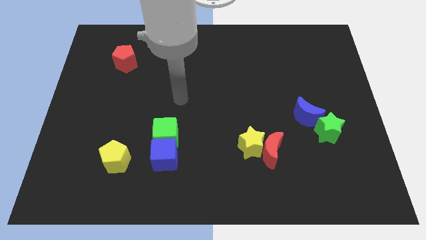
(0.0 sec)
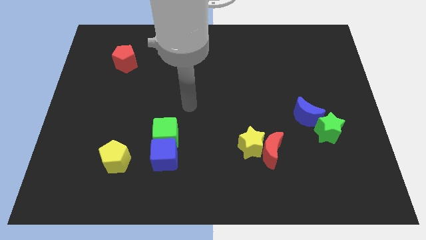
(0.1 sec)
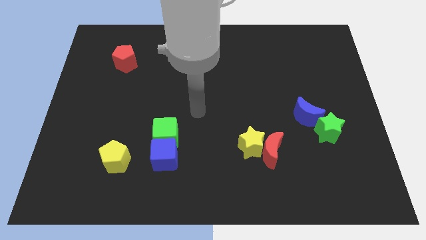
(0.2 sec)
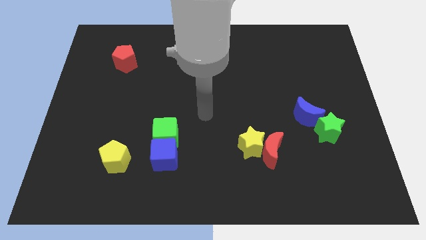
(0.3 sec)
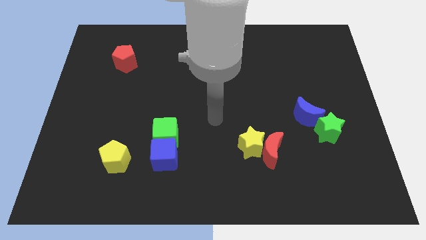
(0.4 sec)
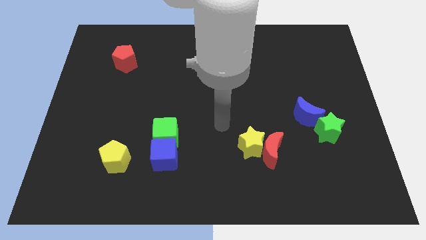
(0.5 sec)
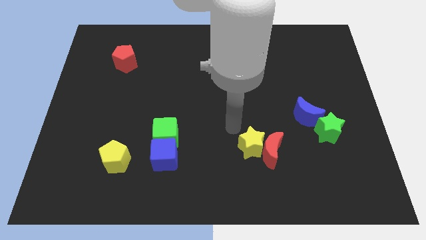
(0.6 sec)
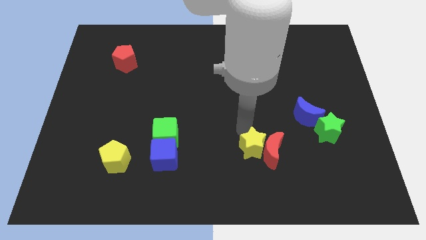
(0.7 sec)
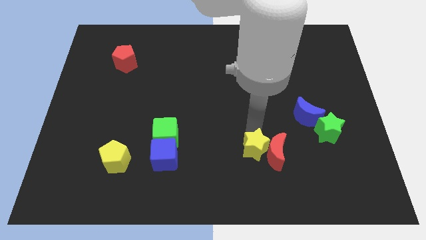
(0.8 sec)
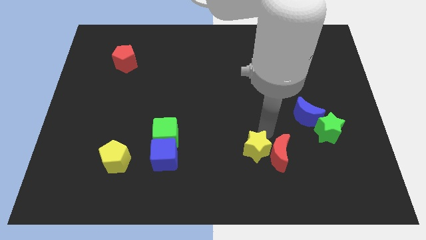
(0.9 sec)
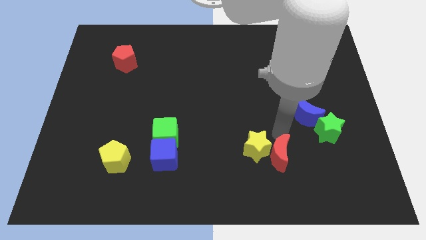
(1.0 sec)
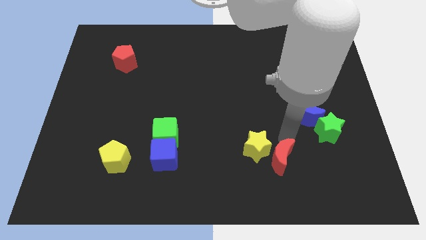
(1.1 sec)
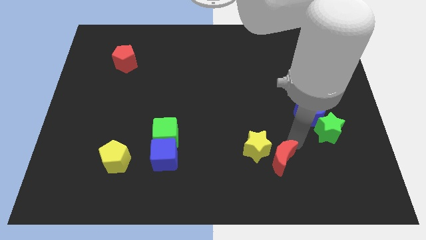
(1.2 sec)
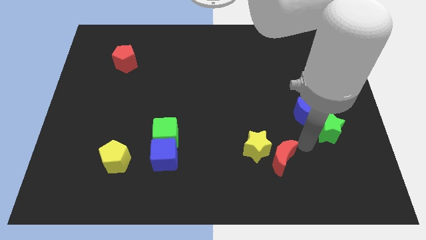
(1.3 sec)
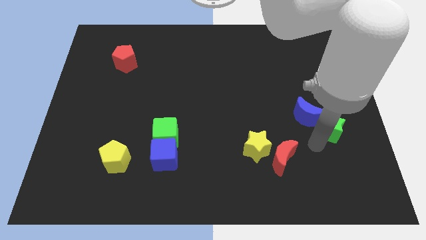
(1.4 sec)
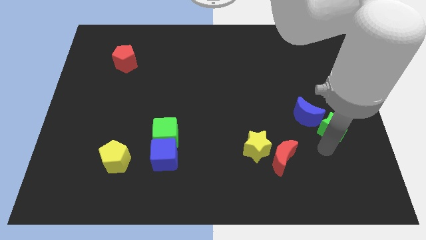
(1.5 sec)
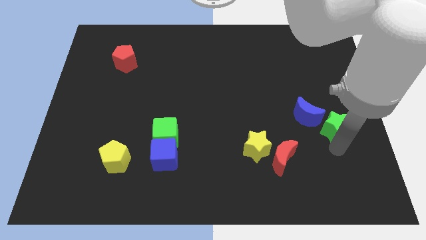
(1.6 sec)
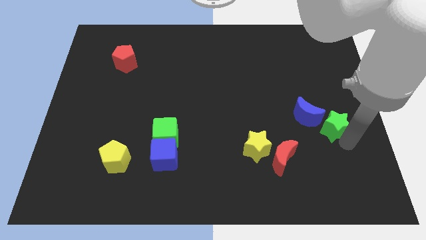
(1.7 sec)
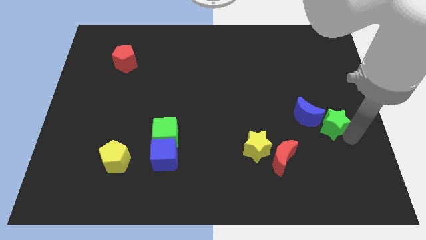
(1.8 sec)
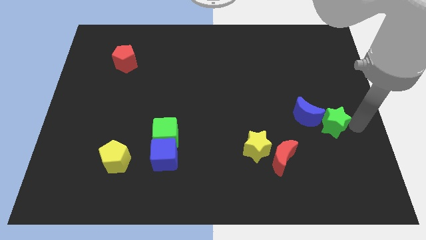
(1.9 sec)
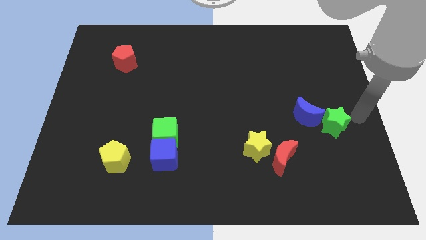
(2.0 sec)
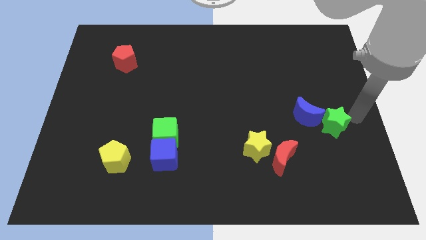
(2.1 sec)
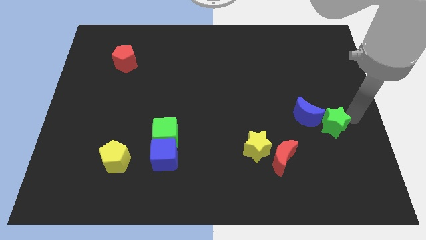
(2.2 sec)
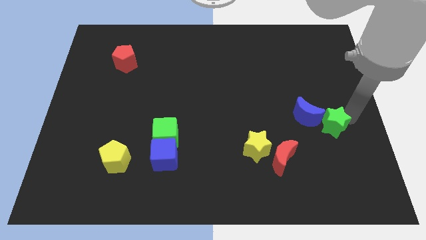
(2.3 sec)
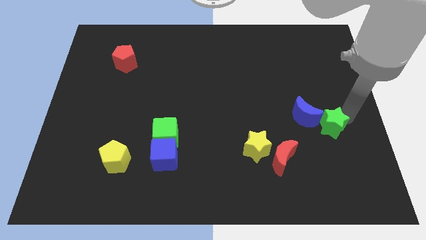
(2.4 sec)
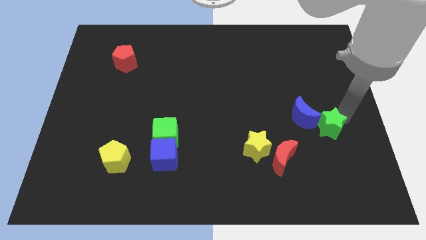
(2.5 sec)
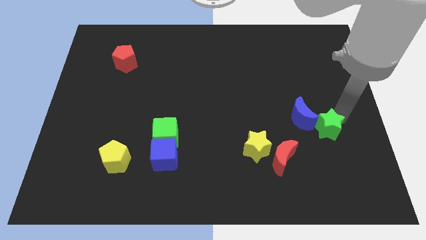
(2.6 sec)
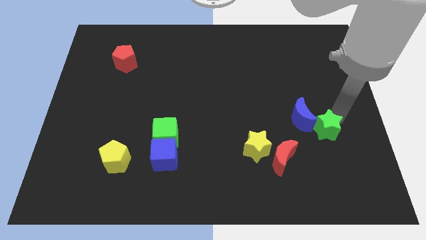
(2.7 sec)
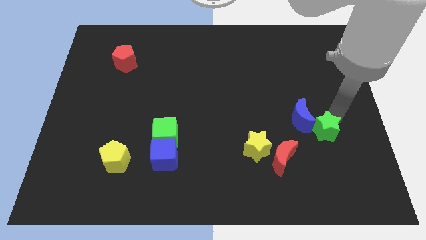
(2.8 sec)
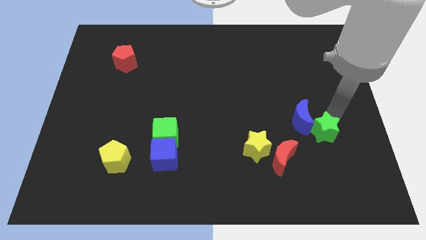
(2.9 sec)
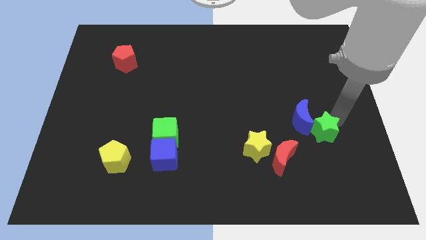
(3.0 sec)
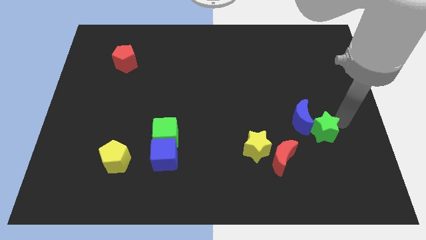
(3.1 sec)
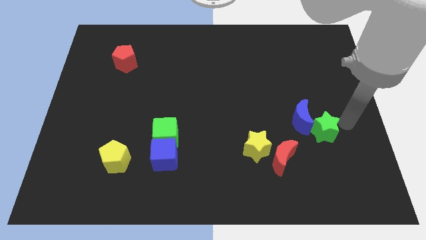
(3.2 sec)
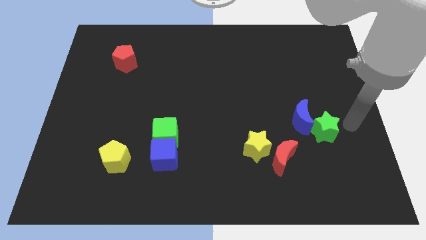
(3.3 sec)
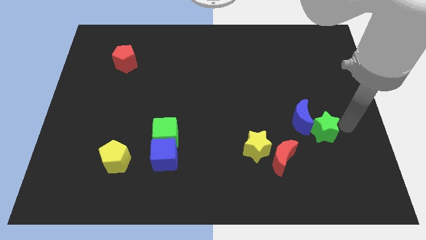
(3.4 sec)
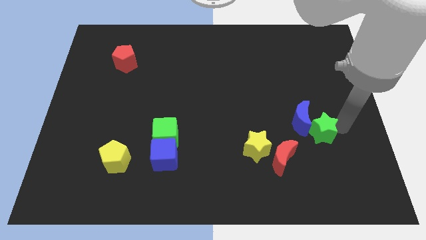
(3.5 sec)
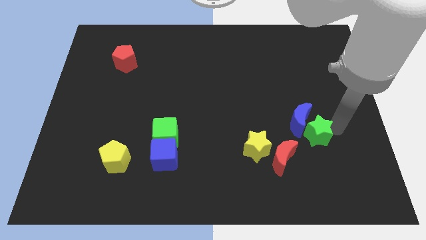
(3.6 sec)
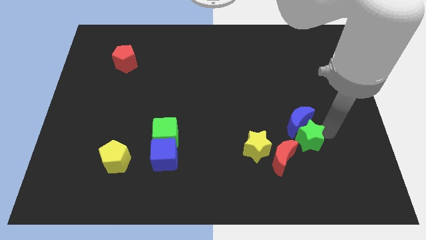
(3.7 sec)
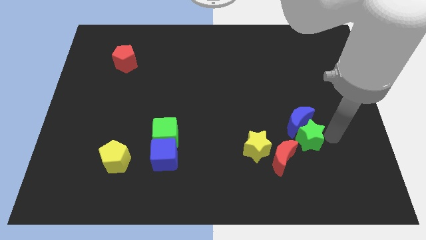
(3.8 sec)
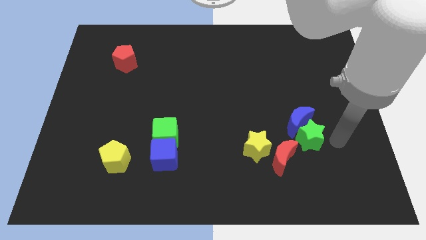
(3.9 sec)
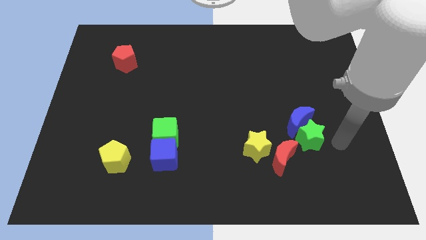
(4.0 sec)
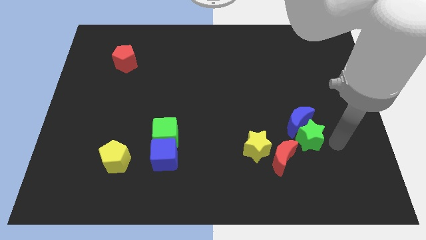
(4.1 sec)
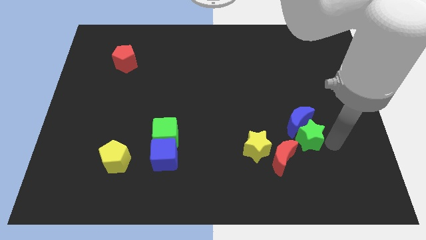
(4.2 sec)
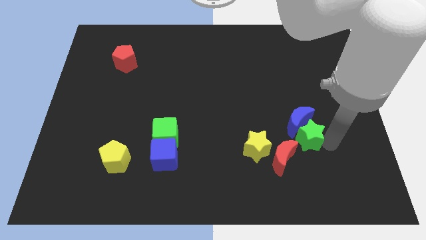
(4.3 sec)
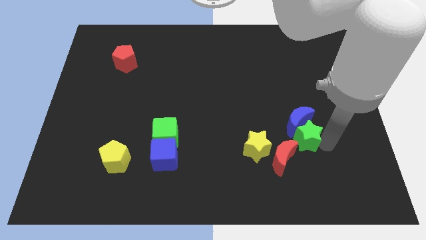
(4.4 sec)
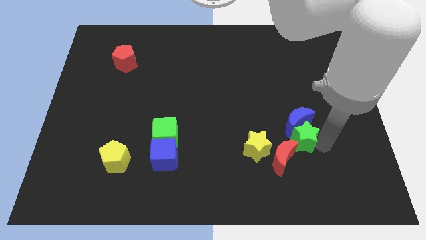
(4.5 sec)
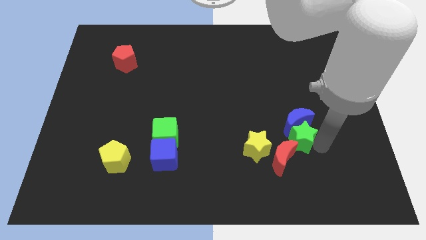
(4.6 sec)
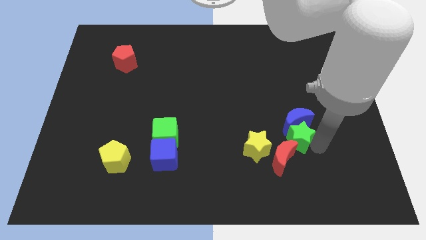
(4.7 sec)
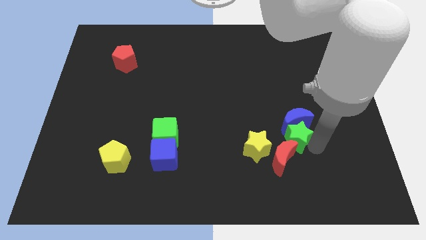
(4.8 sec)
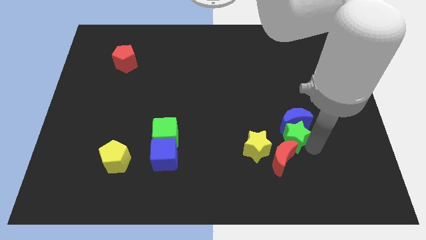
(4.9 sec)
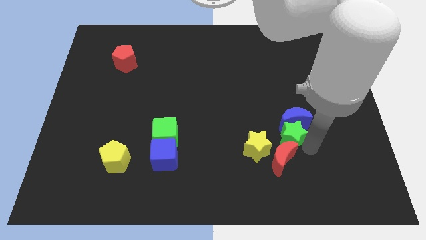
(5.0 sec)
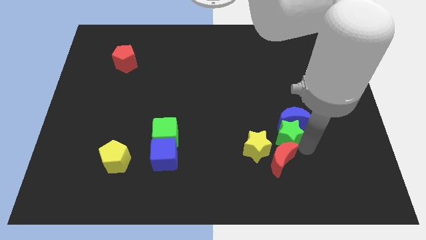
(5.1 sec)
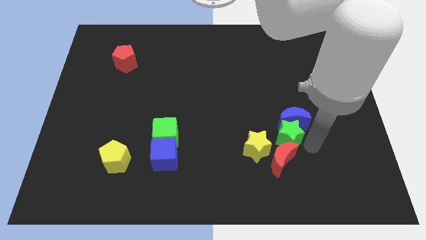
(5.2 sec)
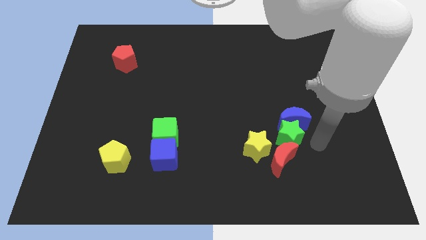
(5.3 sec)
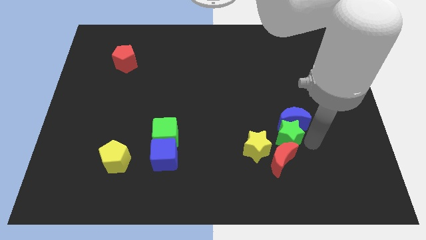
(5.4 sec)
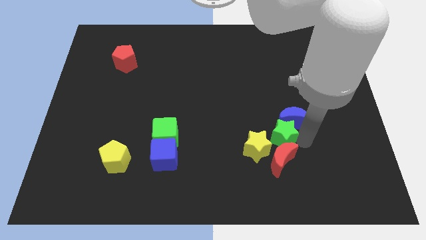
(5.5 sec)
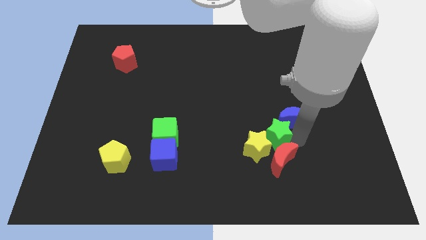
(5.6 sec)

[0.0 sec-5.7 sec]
push the green star next to the yellow star
